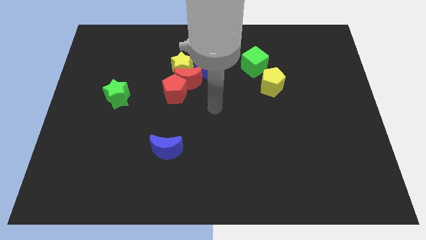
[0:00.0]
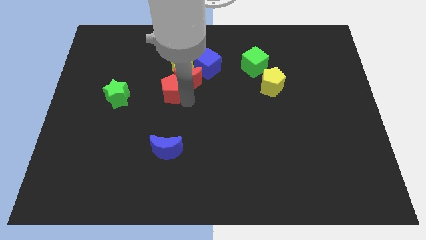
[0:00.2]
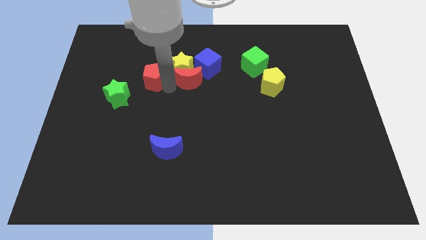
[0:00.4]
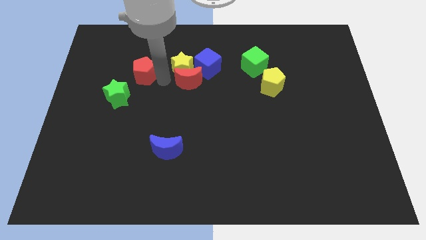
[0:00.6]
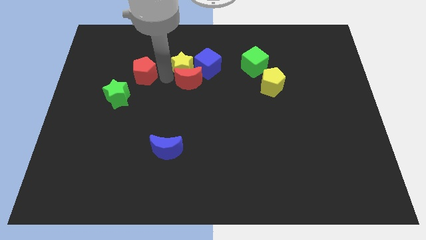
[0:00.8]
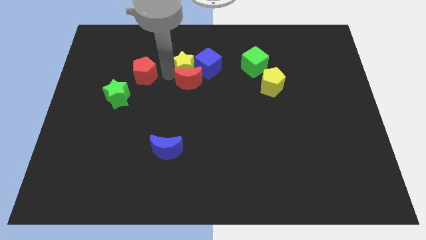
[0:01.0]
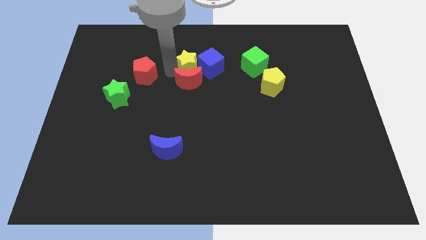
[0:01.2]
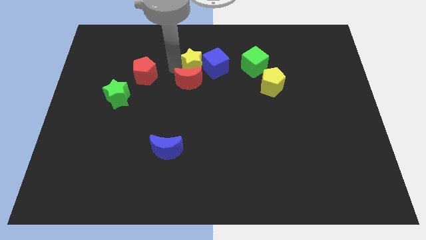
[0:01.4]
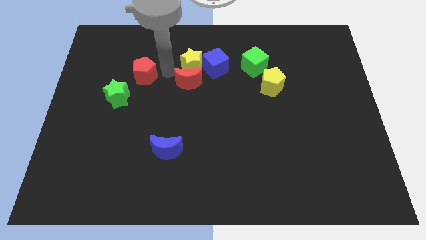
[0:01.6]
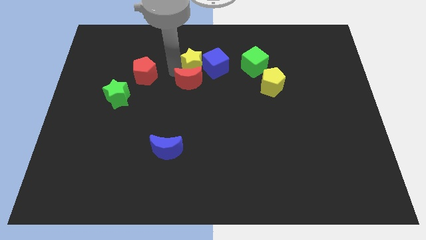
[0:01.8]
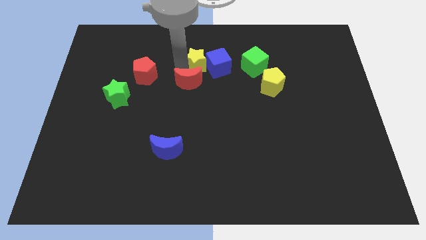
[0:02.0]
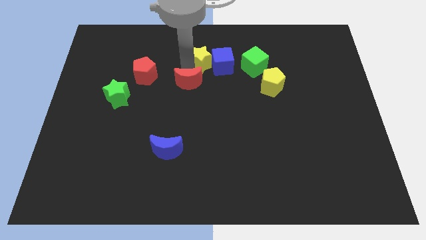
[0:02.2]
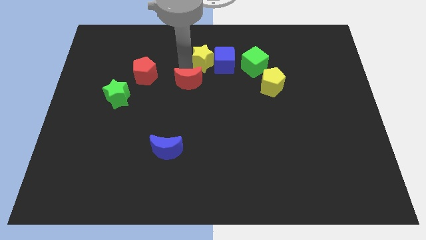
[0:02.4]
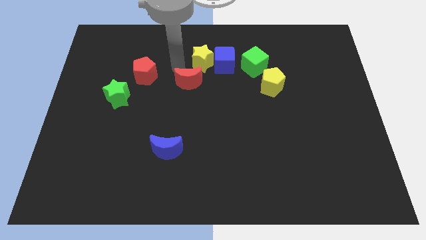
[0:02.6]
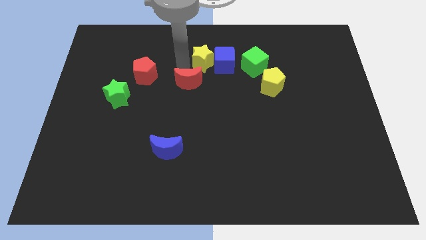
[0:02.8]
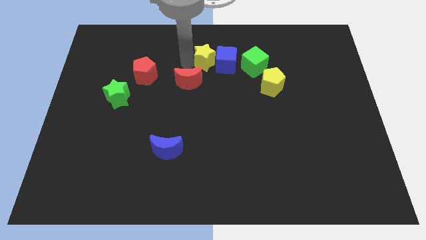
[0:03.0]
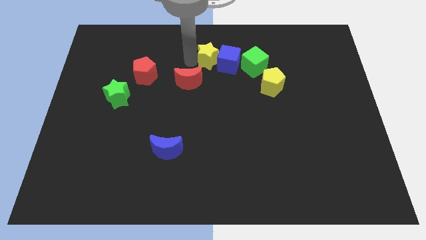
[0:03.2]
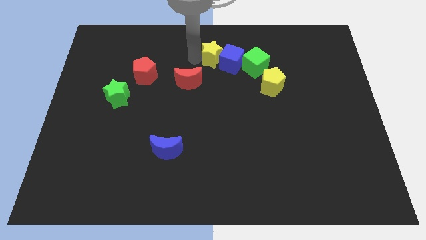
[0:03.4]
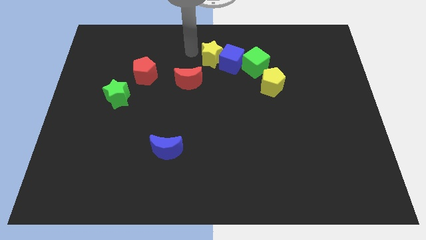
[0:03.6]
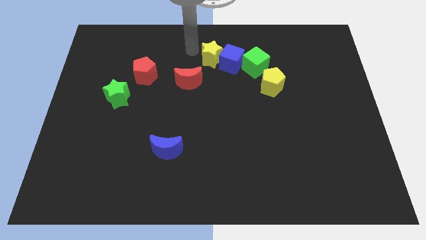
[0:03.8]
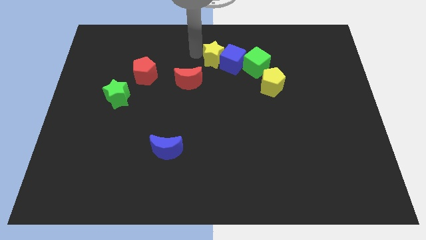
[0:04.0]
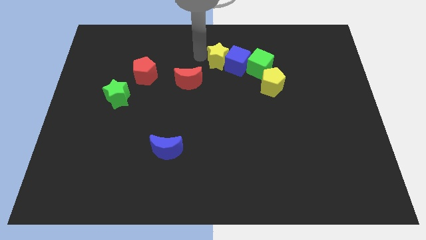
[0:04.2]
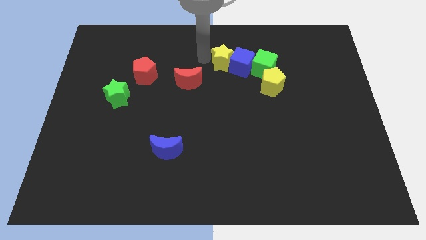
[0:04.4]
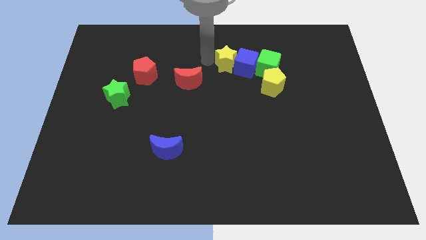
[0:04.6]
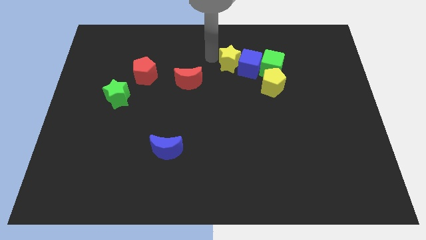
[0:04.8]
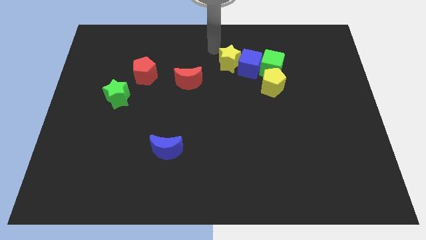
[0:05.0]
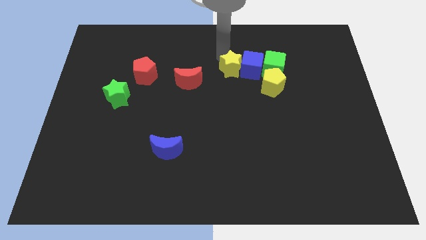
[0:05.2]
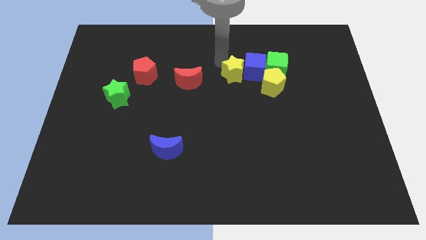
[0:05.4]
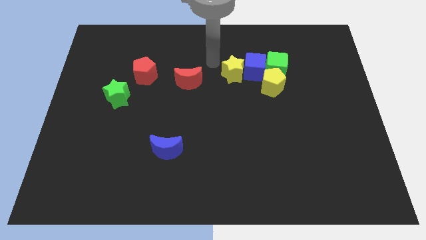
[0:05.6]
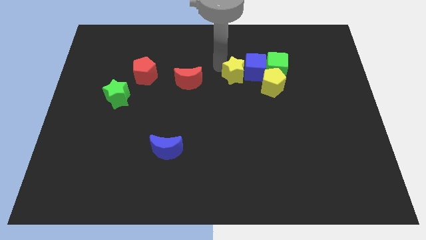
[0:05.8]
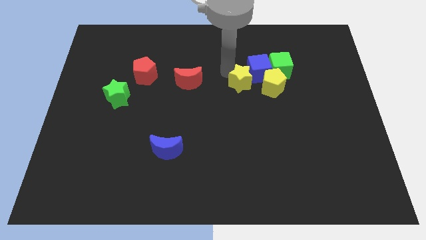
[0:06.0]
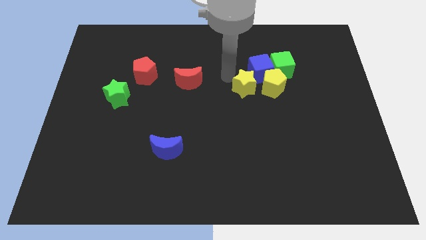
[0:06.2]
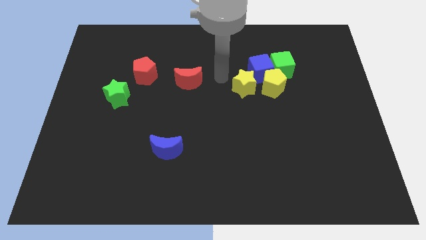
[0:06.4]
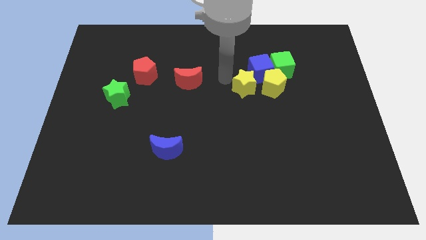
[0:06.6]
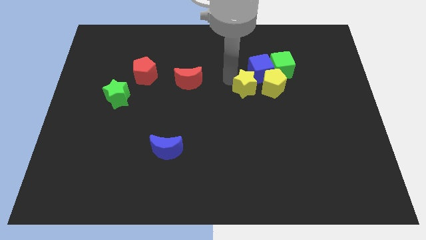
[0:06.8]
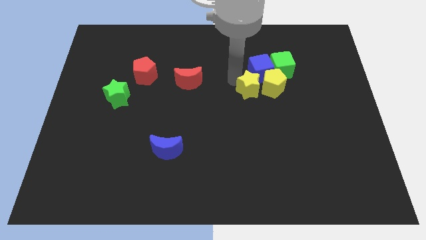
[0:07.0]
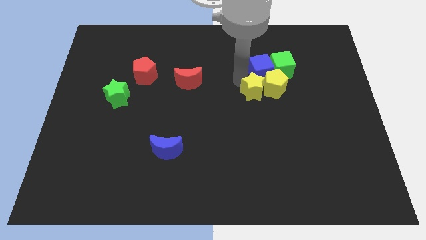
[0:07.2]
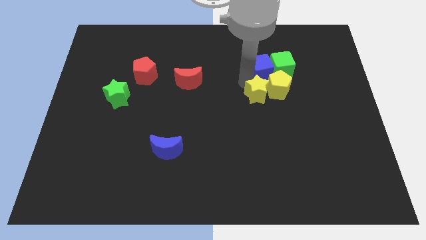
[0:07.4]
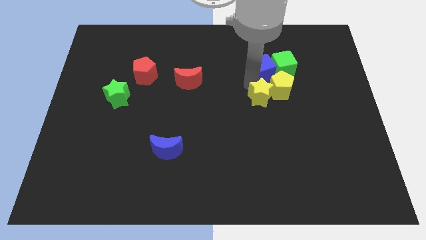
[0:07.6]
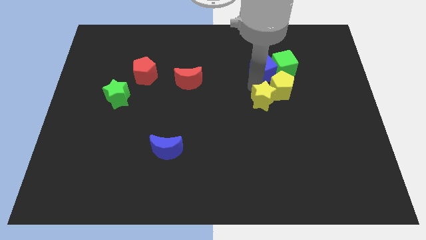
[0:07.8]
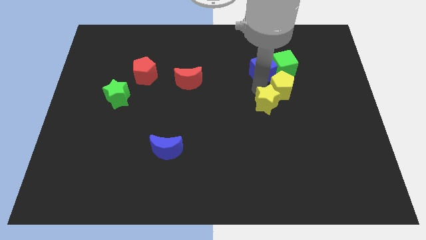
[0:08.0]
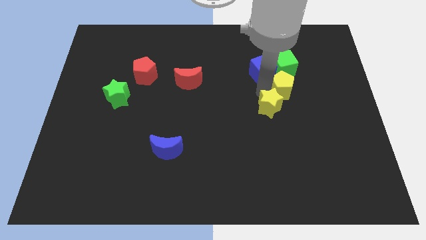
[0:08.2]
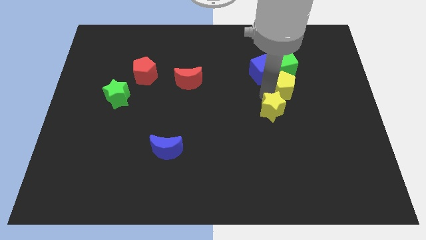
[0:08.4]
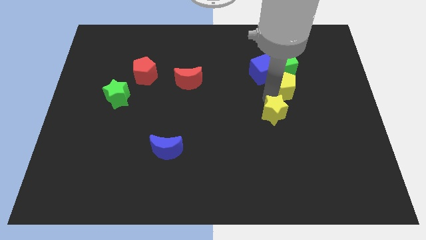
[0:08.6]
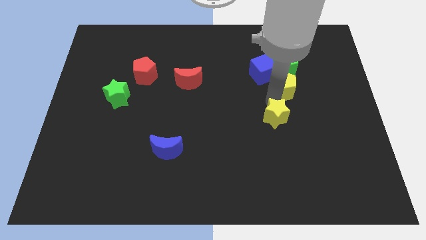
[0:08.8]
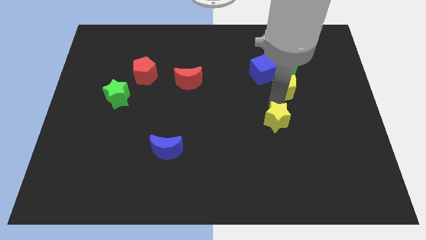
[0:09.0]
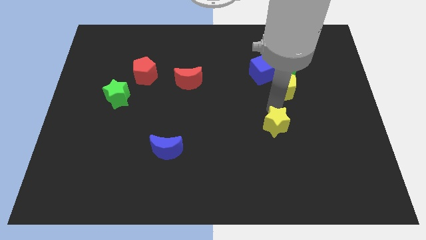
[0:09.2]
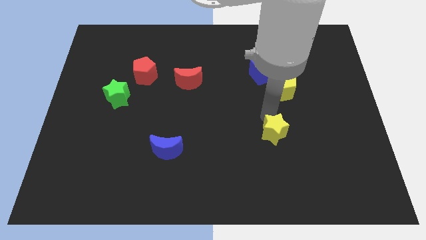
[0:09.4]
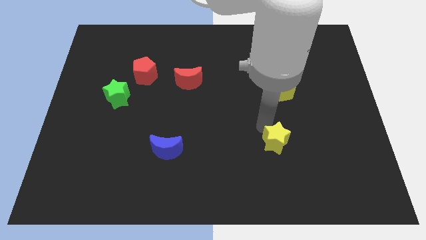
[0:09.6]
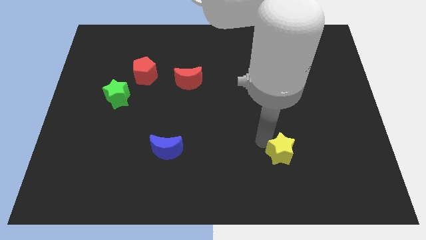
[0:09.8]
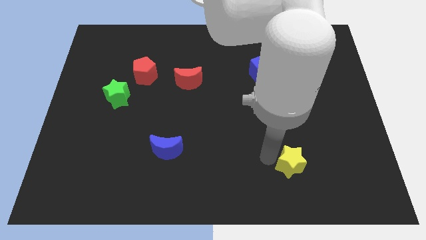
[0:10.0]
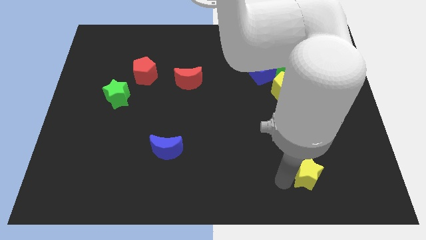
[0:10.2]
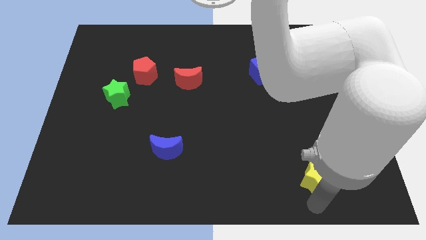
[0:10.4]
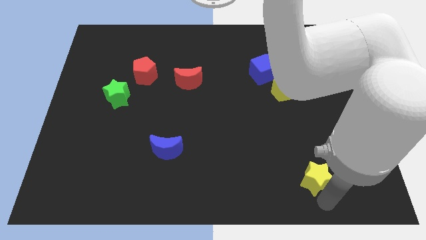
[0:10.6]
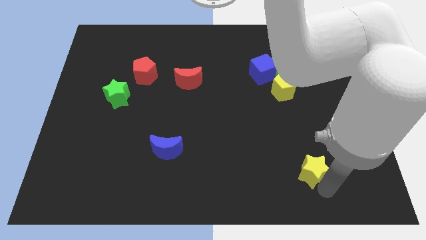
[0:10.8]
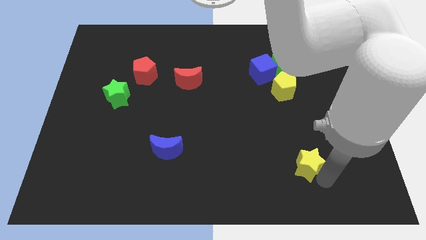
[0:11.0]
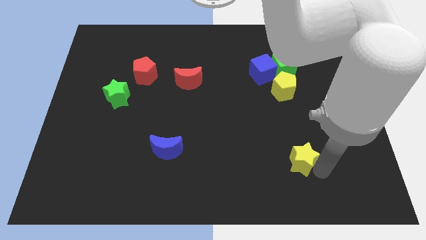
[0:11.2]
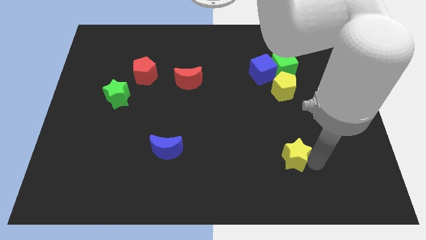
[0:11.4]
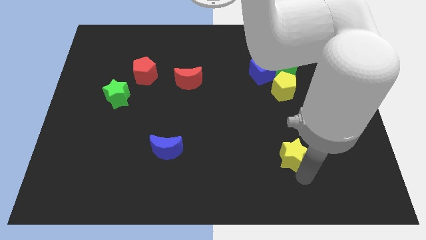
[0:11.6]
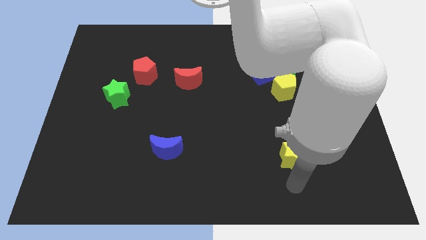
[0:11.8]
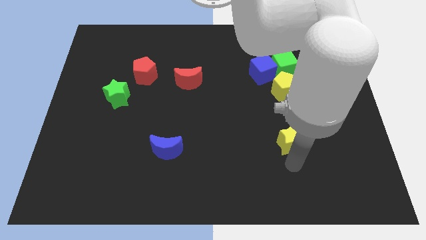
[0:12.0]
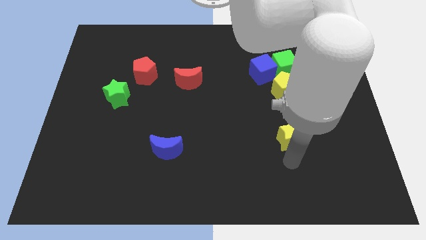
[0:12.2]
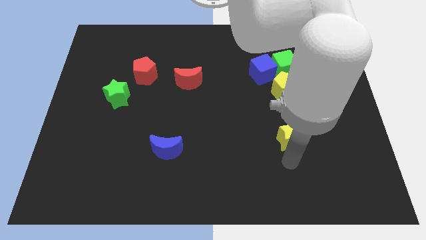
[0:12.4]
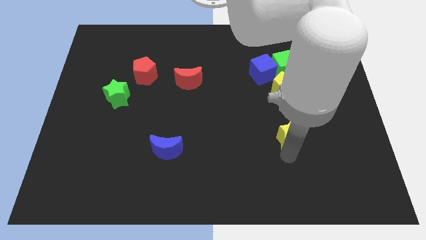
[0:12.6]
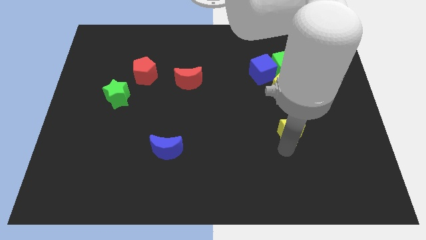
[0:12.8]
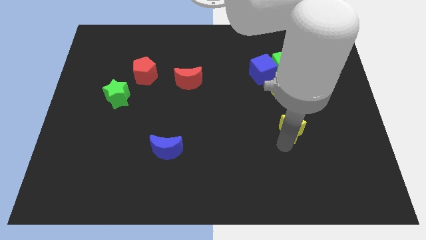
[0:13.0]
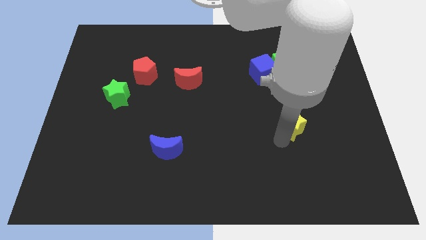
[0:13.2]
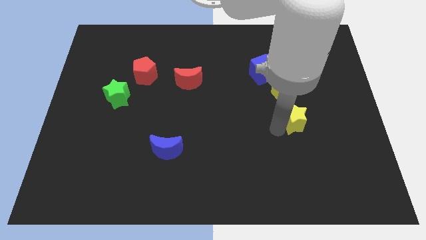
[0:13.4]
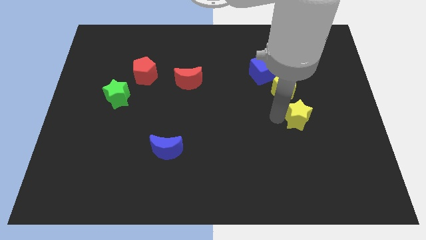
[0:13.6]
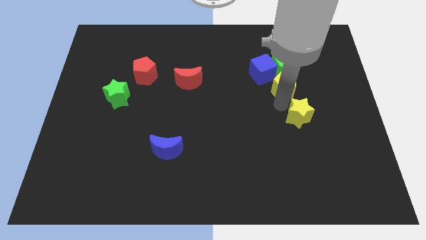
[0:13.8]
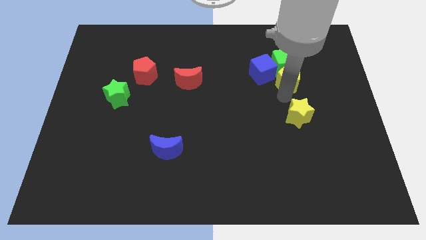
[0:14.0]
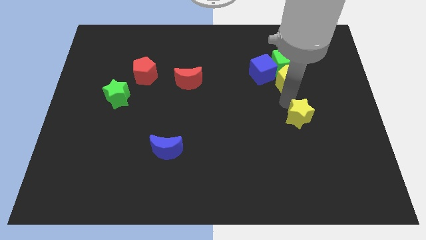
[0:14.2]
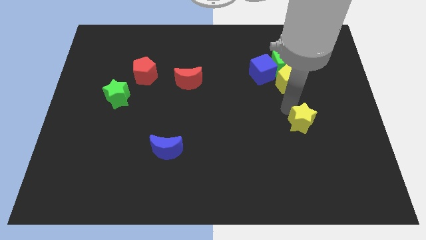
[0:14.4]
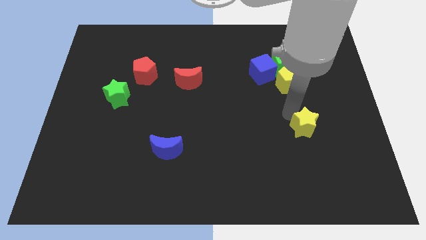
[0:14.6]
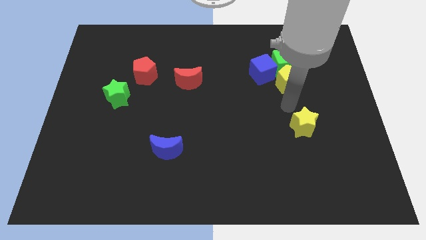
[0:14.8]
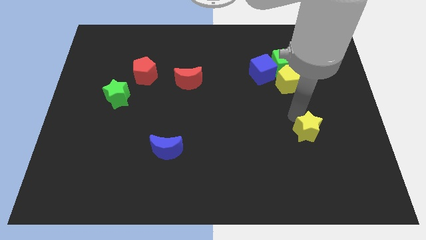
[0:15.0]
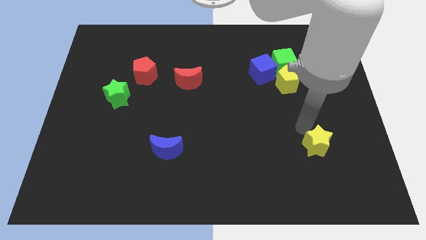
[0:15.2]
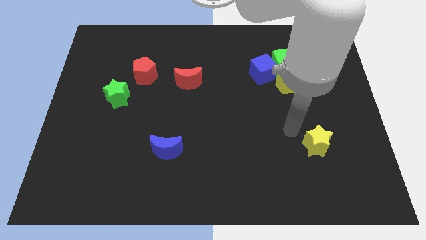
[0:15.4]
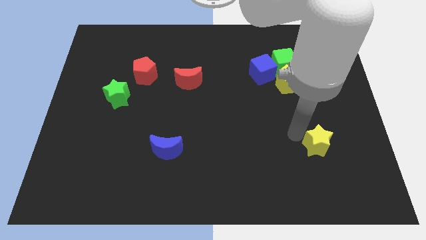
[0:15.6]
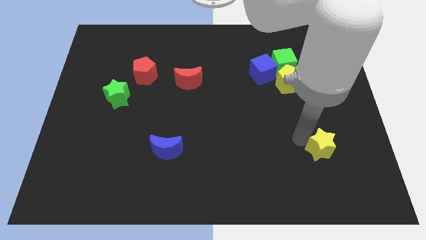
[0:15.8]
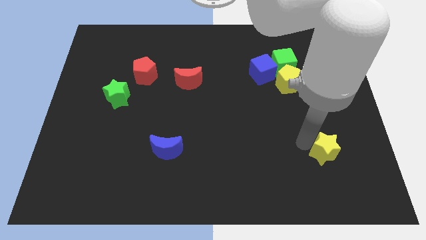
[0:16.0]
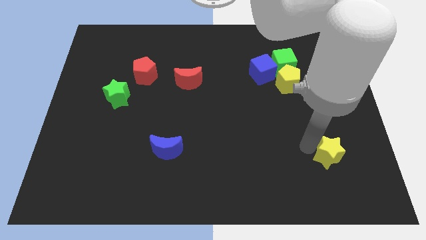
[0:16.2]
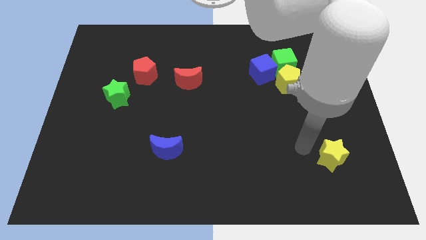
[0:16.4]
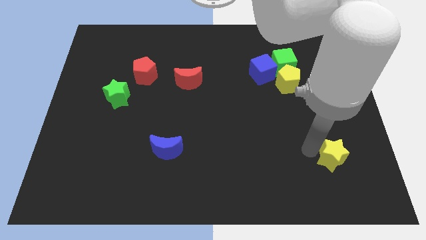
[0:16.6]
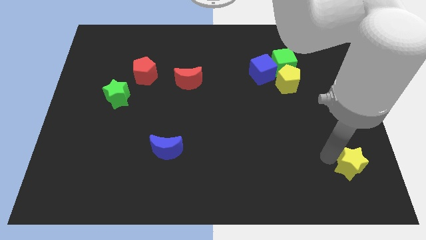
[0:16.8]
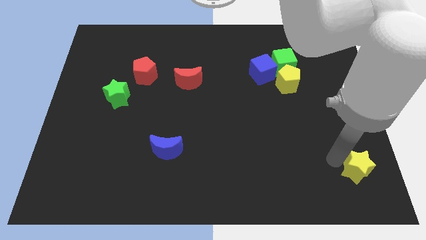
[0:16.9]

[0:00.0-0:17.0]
move the yellow star to the bottom right corner
